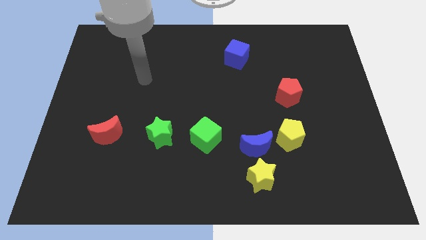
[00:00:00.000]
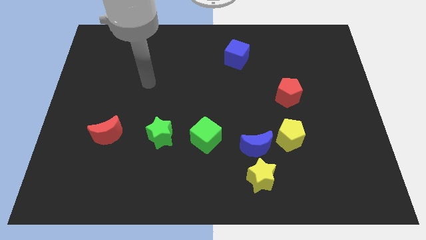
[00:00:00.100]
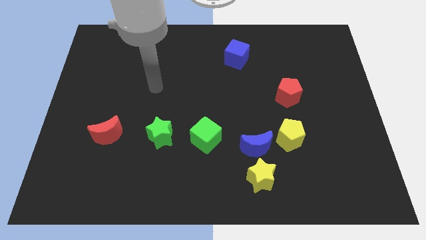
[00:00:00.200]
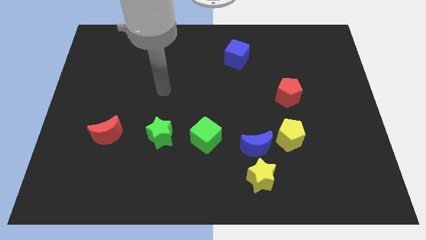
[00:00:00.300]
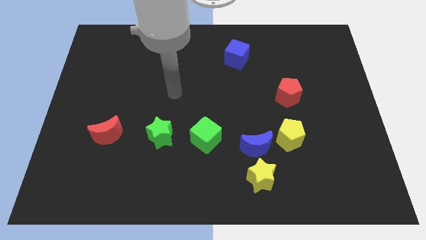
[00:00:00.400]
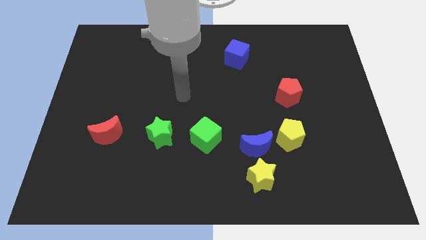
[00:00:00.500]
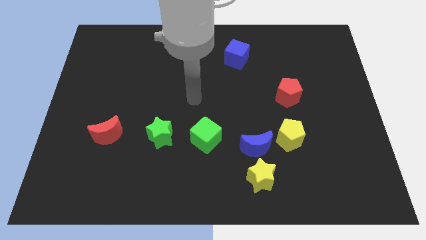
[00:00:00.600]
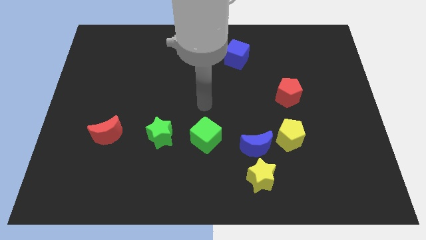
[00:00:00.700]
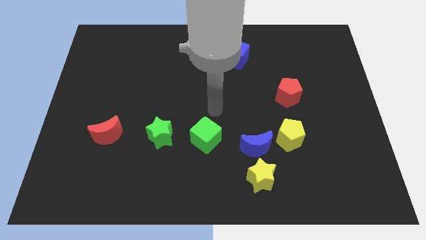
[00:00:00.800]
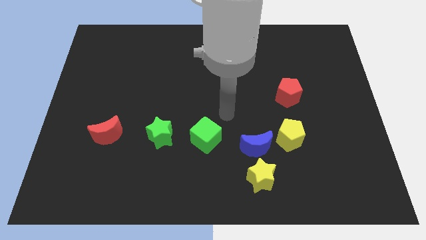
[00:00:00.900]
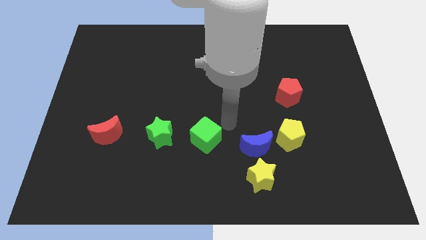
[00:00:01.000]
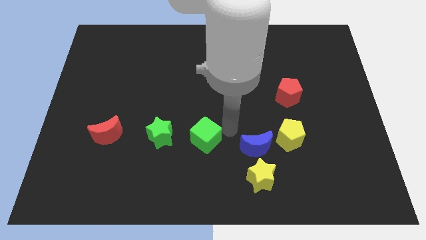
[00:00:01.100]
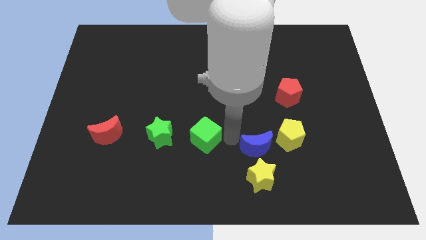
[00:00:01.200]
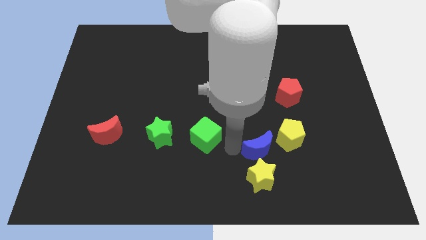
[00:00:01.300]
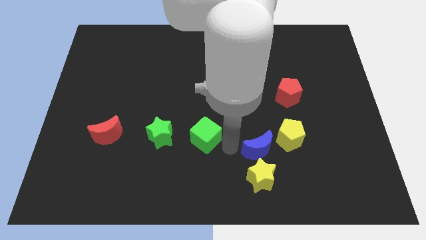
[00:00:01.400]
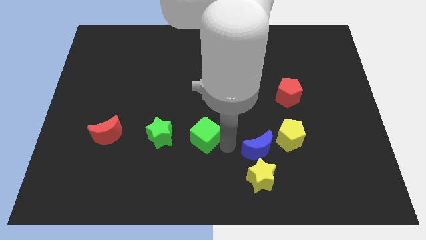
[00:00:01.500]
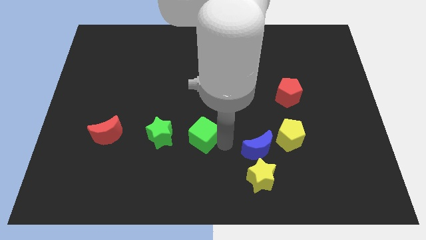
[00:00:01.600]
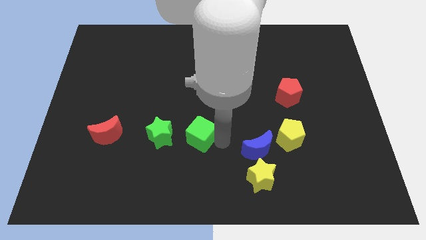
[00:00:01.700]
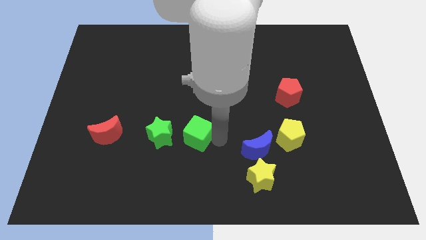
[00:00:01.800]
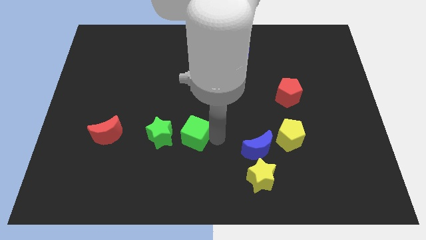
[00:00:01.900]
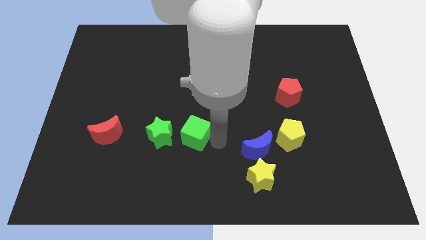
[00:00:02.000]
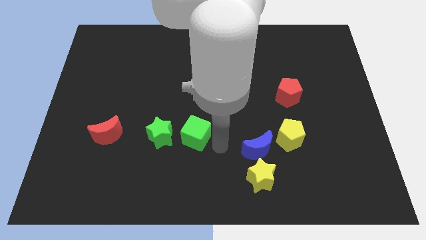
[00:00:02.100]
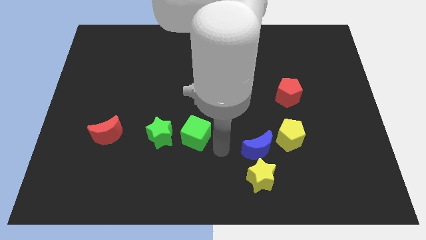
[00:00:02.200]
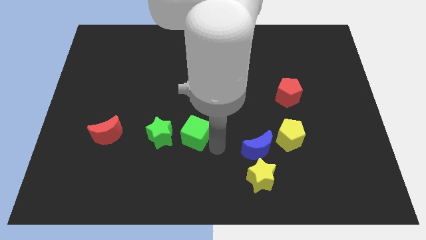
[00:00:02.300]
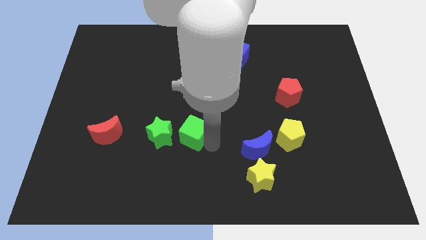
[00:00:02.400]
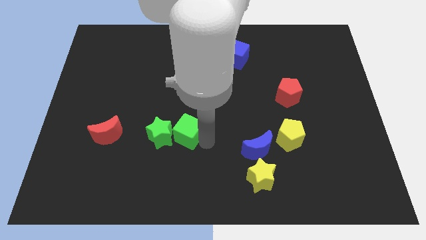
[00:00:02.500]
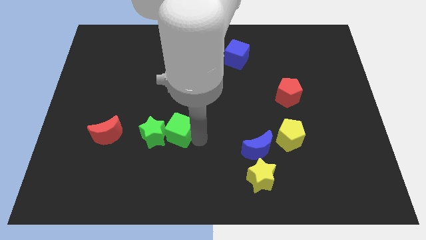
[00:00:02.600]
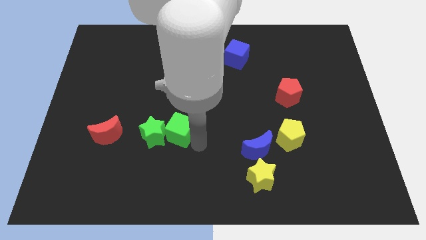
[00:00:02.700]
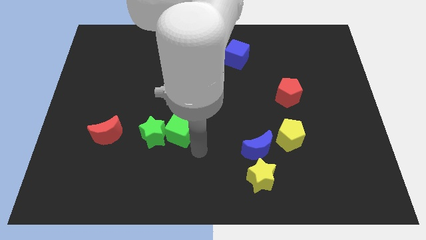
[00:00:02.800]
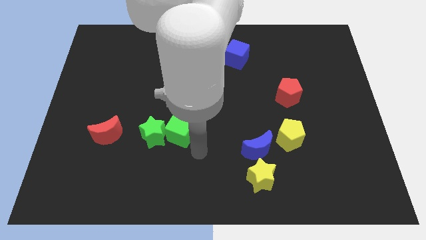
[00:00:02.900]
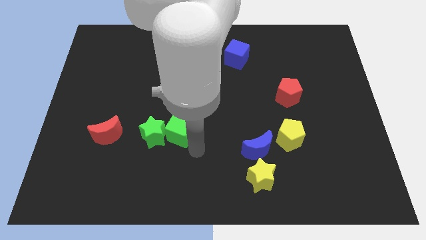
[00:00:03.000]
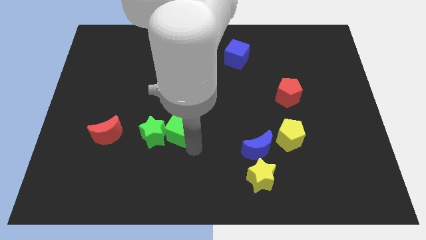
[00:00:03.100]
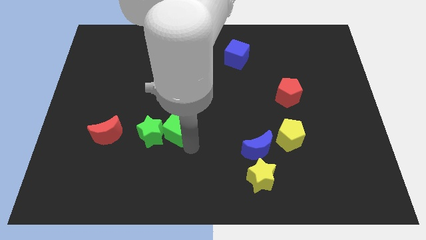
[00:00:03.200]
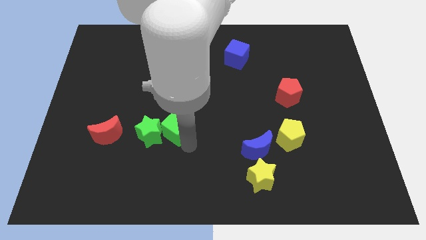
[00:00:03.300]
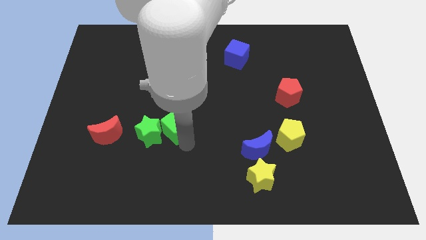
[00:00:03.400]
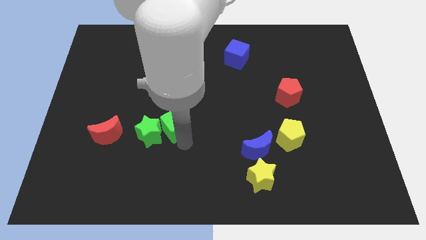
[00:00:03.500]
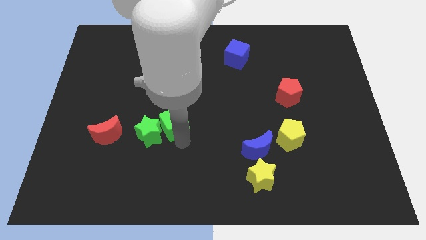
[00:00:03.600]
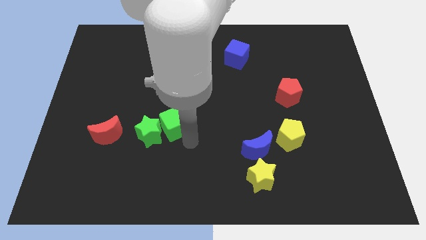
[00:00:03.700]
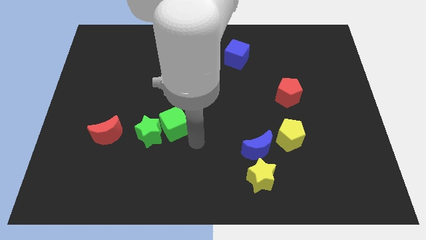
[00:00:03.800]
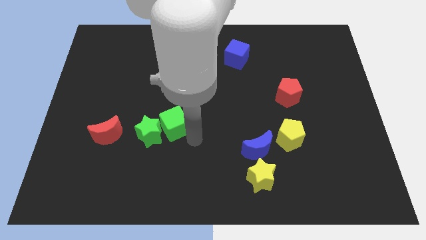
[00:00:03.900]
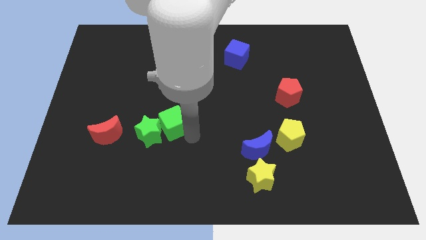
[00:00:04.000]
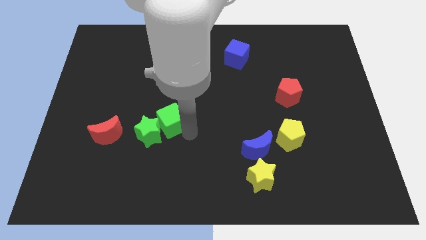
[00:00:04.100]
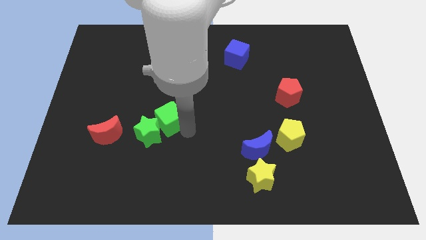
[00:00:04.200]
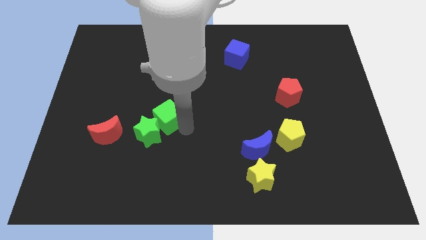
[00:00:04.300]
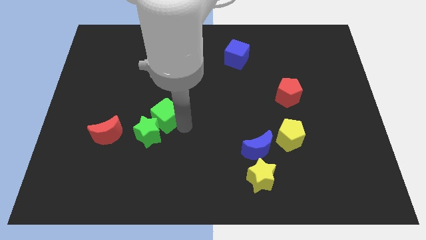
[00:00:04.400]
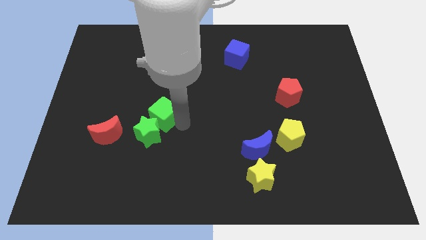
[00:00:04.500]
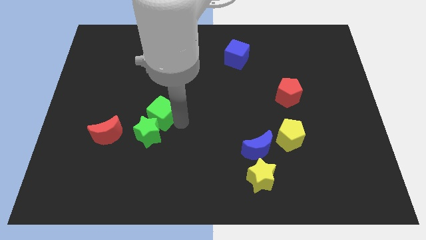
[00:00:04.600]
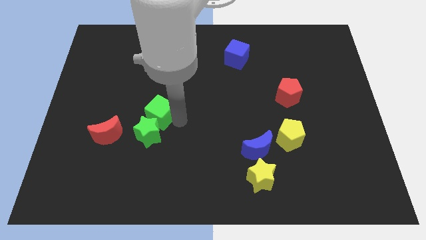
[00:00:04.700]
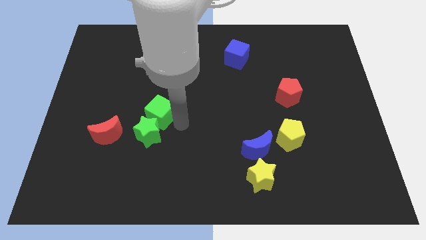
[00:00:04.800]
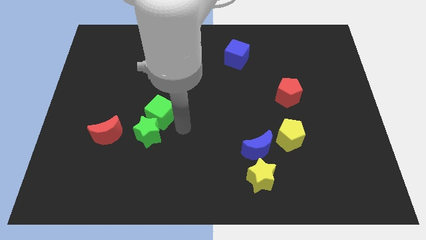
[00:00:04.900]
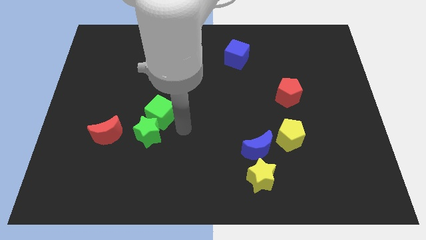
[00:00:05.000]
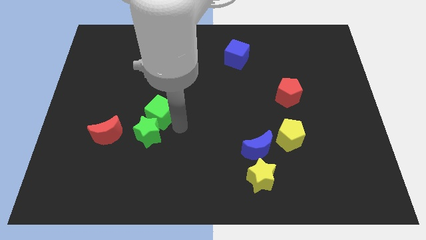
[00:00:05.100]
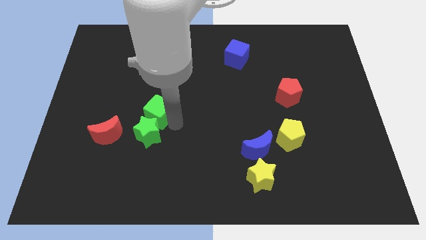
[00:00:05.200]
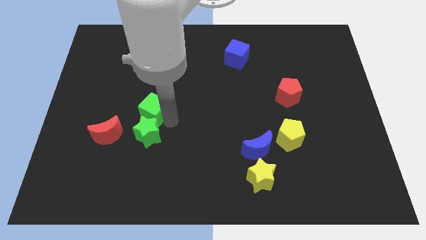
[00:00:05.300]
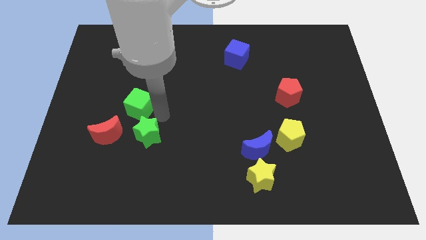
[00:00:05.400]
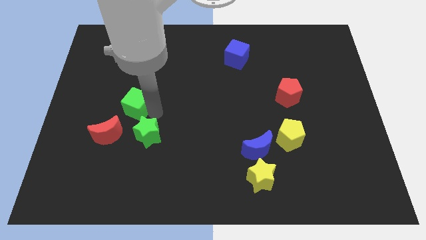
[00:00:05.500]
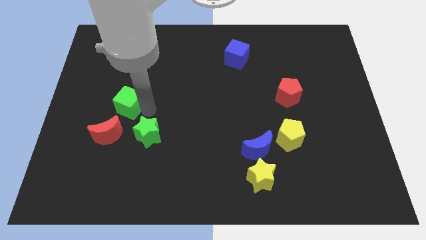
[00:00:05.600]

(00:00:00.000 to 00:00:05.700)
move the green cube to the top of the red moon

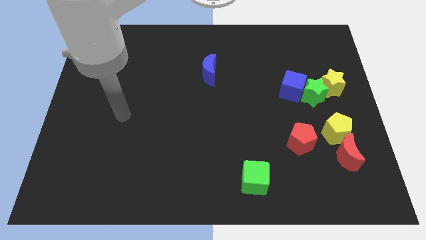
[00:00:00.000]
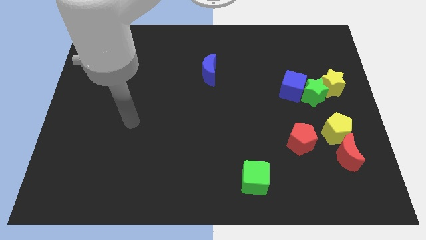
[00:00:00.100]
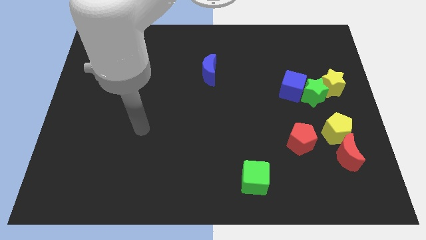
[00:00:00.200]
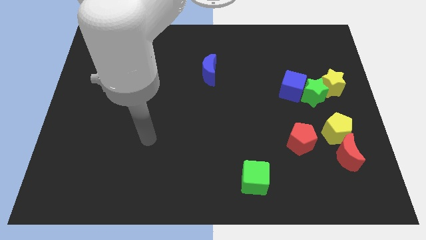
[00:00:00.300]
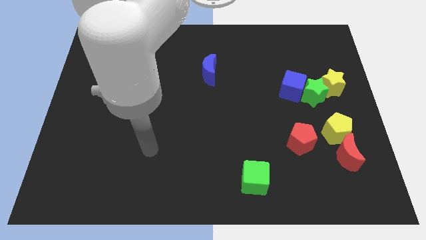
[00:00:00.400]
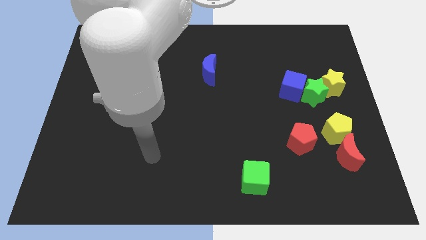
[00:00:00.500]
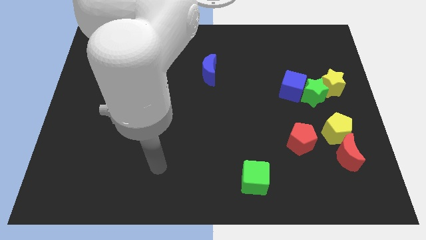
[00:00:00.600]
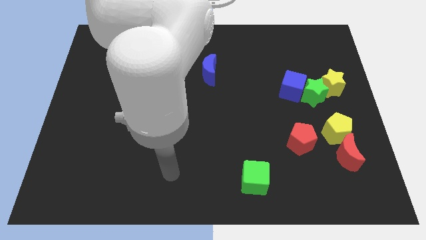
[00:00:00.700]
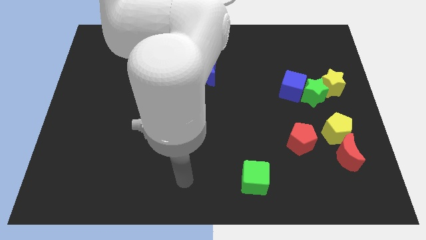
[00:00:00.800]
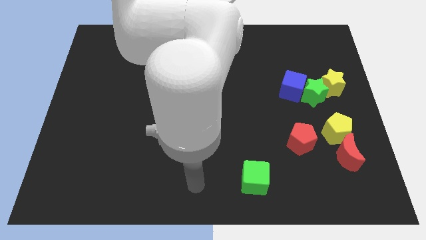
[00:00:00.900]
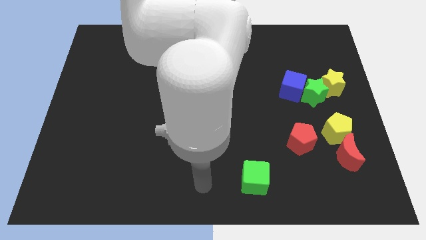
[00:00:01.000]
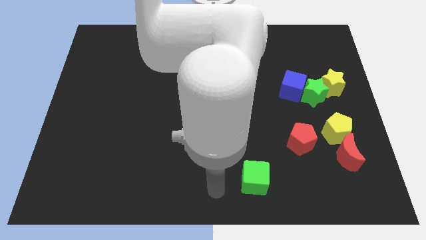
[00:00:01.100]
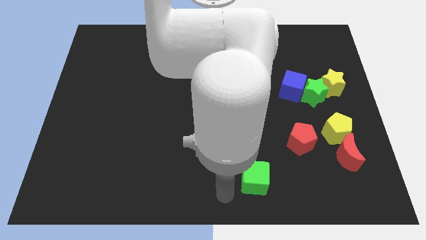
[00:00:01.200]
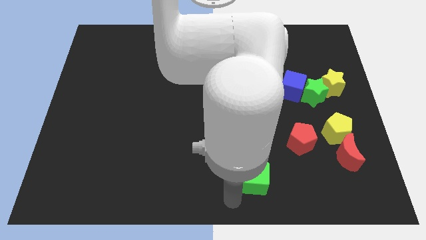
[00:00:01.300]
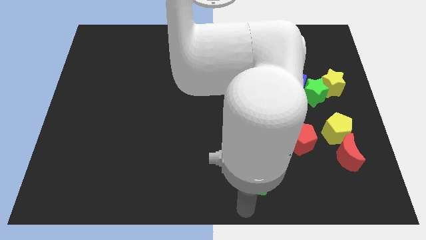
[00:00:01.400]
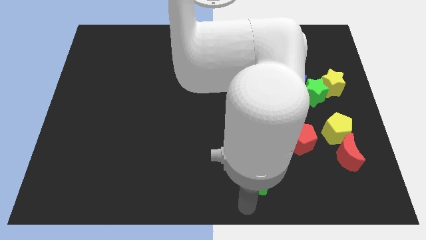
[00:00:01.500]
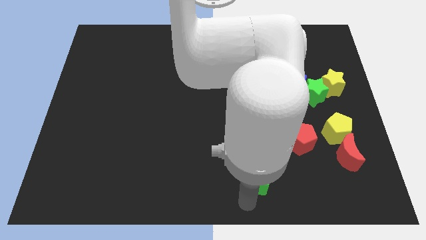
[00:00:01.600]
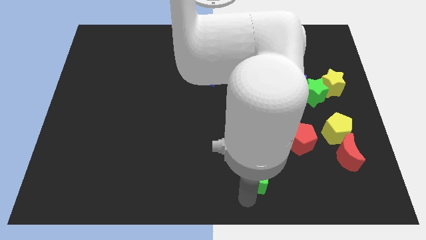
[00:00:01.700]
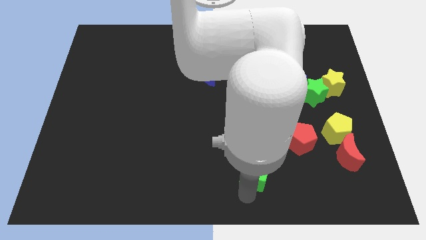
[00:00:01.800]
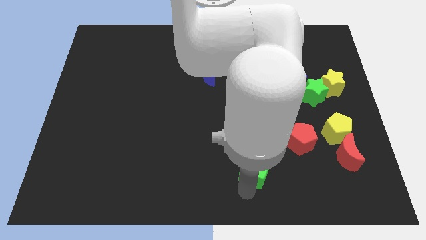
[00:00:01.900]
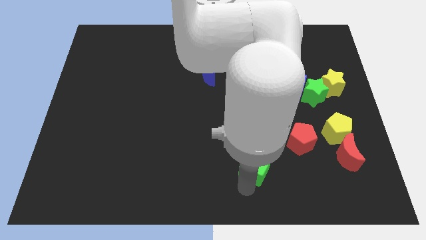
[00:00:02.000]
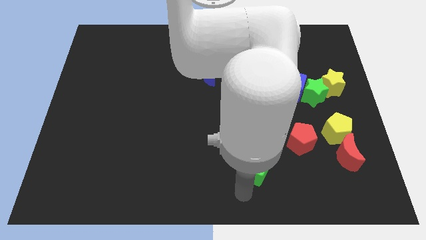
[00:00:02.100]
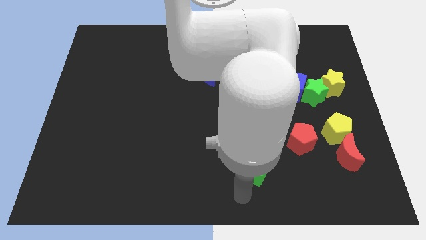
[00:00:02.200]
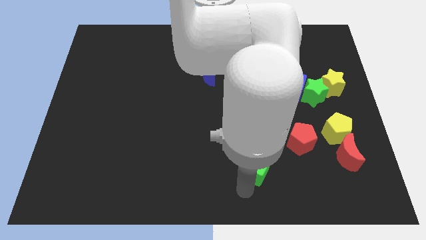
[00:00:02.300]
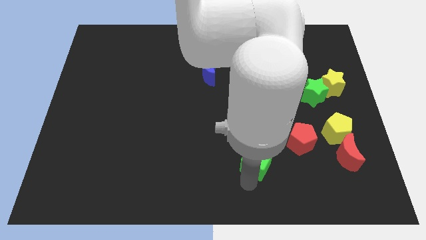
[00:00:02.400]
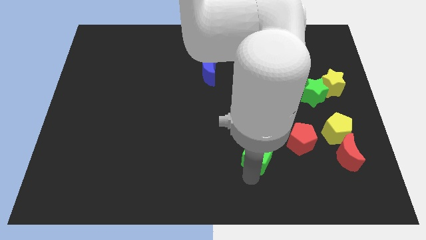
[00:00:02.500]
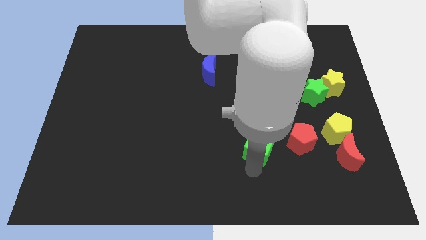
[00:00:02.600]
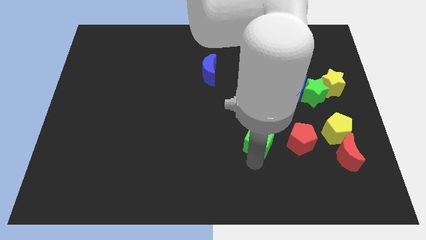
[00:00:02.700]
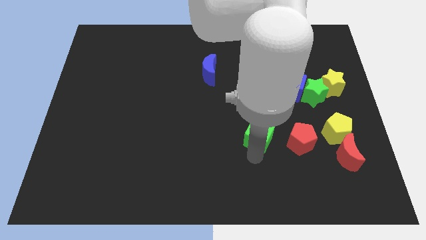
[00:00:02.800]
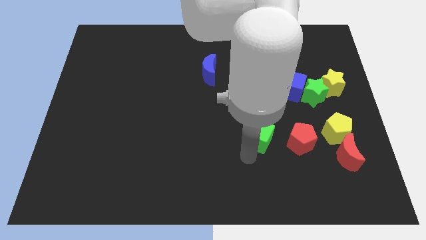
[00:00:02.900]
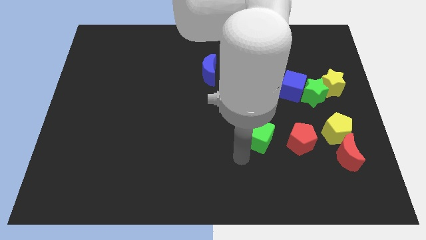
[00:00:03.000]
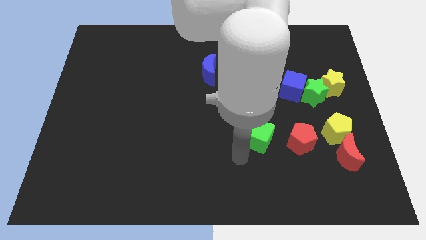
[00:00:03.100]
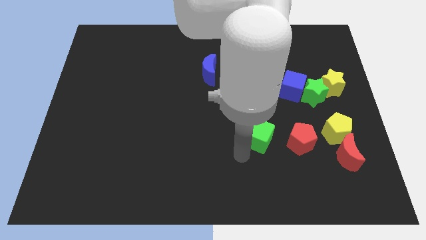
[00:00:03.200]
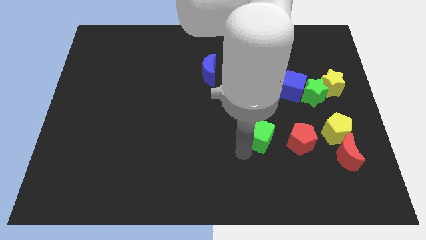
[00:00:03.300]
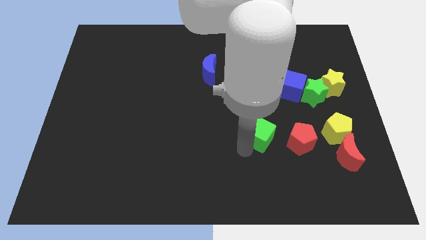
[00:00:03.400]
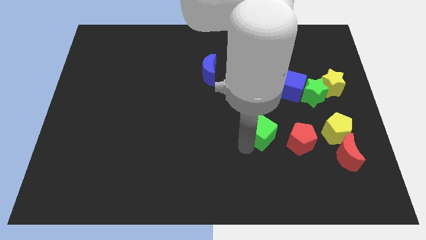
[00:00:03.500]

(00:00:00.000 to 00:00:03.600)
move the green cube diagonally up and to the left of the red pentagon
